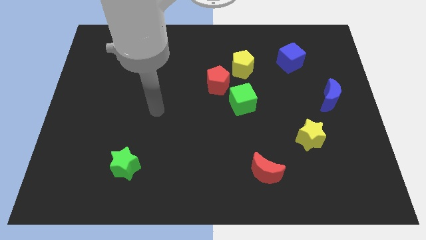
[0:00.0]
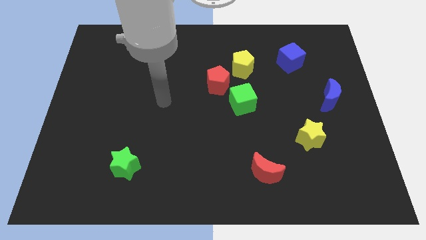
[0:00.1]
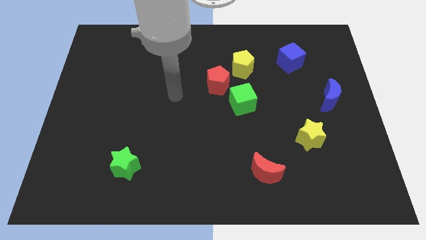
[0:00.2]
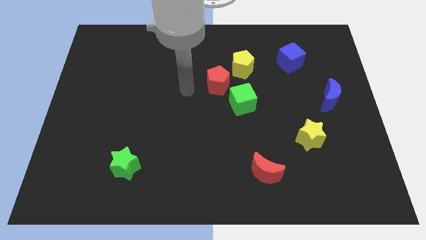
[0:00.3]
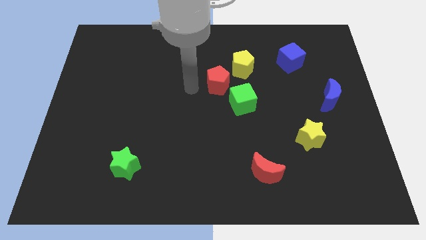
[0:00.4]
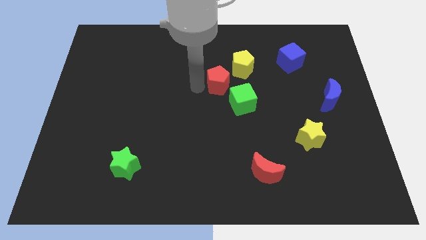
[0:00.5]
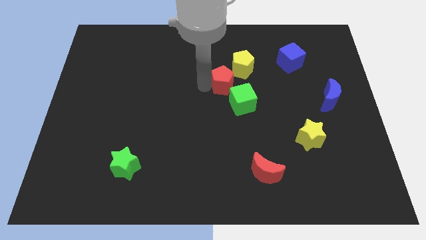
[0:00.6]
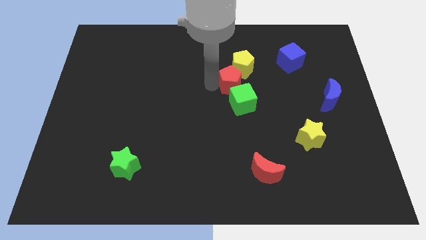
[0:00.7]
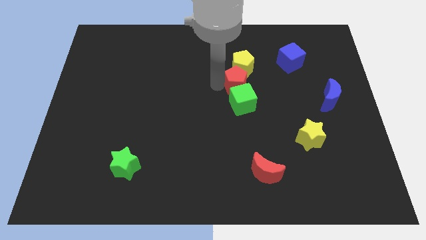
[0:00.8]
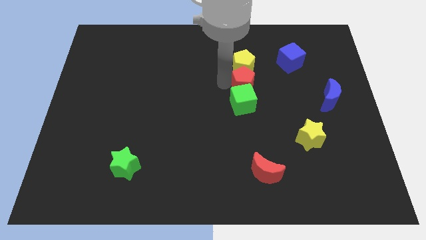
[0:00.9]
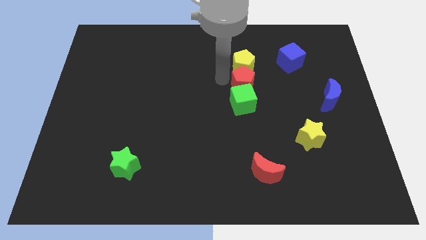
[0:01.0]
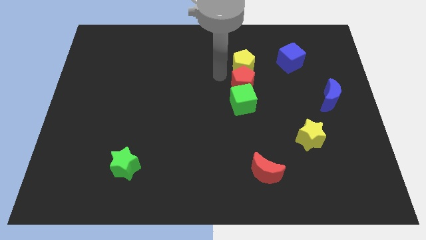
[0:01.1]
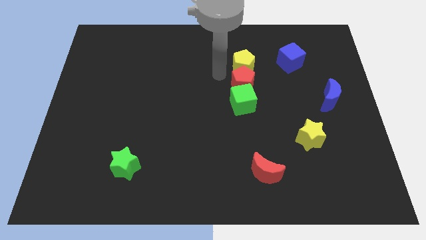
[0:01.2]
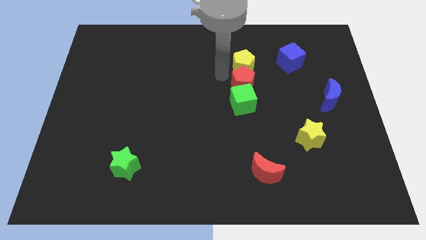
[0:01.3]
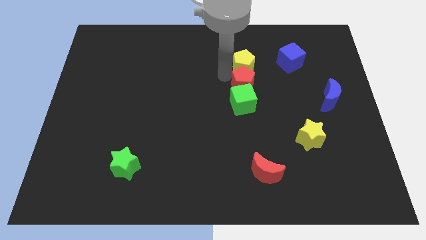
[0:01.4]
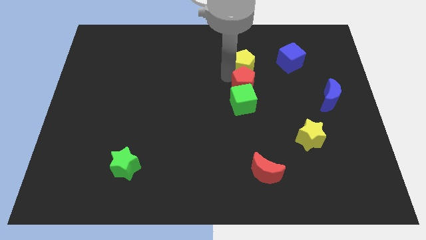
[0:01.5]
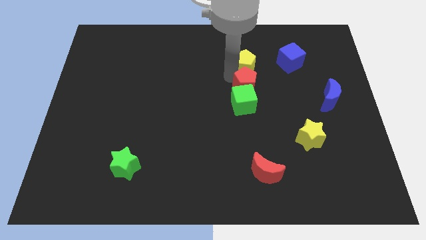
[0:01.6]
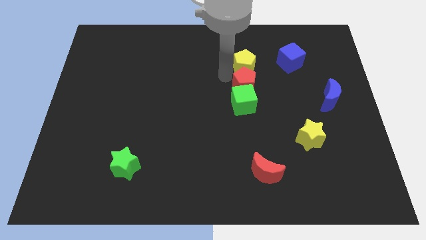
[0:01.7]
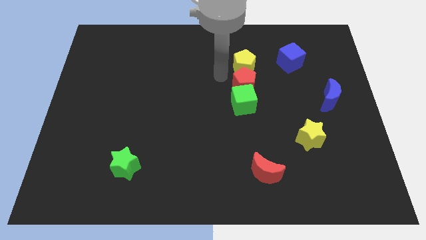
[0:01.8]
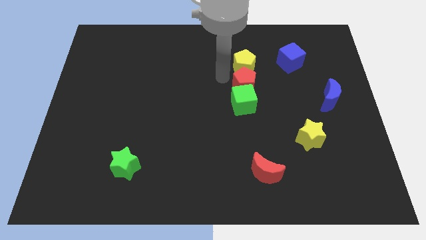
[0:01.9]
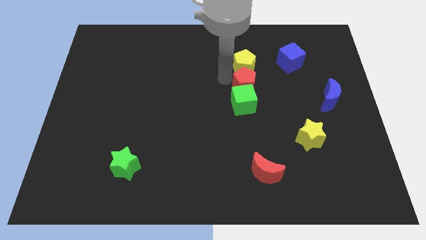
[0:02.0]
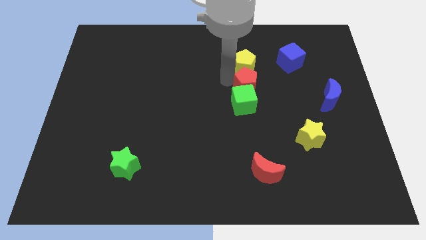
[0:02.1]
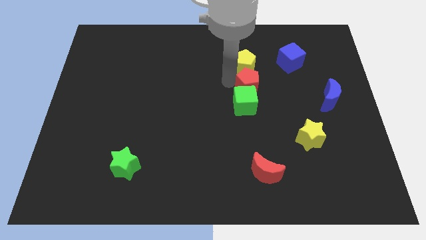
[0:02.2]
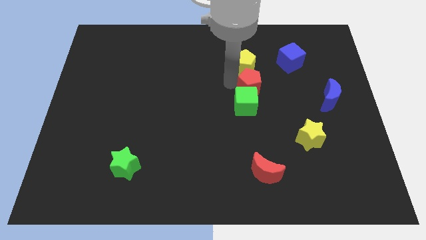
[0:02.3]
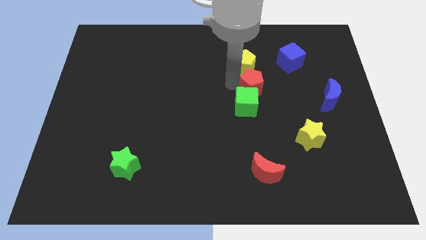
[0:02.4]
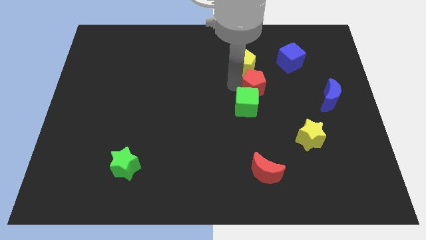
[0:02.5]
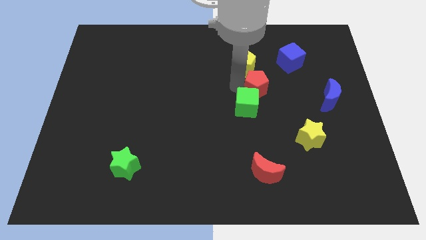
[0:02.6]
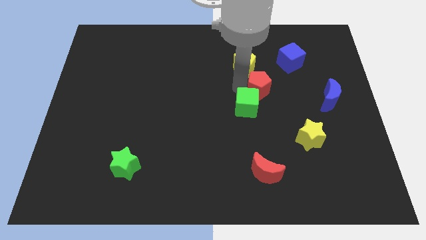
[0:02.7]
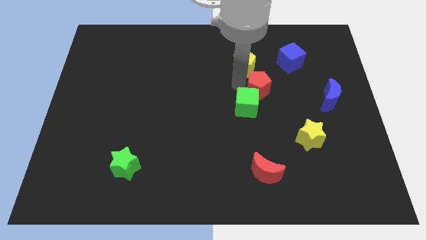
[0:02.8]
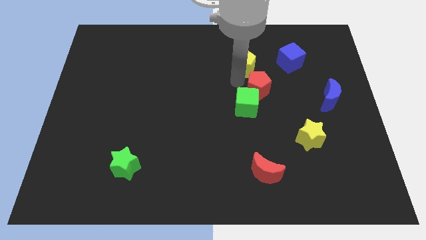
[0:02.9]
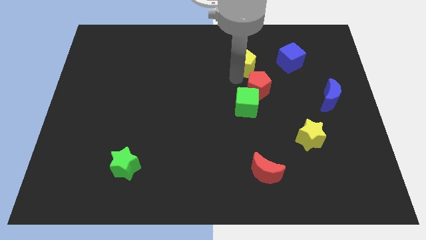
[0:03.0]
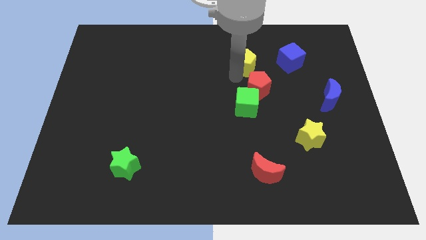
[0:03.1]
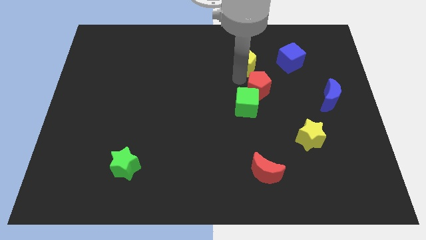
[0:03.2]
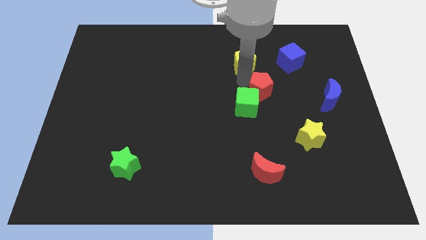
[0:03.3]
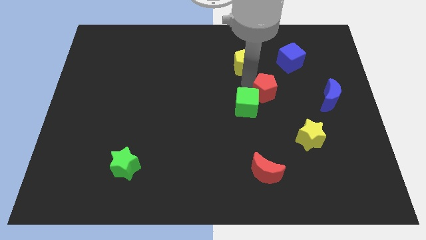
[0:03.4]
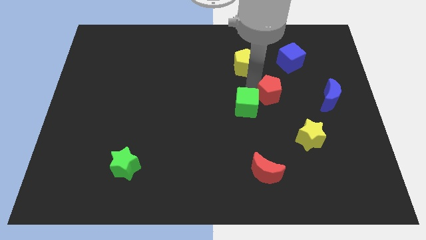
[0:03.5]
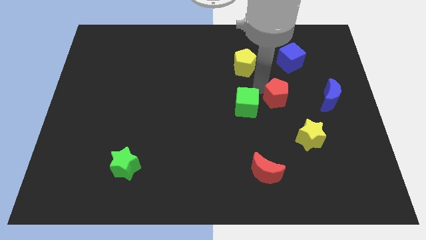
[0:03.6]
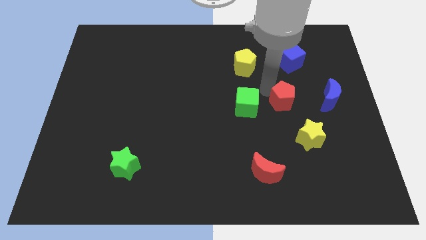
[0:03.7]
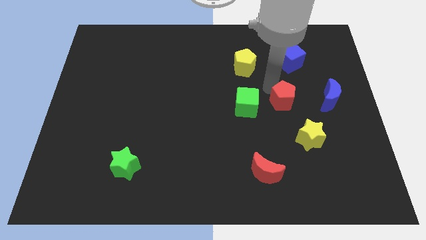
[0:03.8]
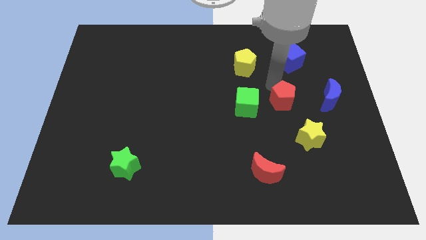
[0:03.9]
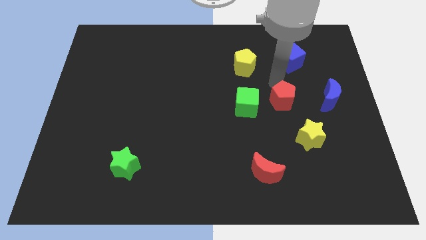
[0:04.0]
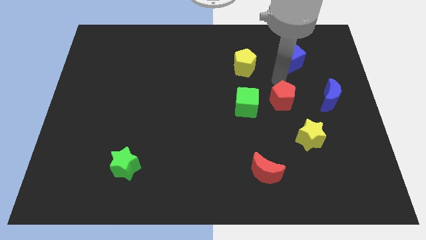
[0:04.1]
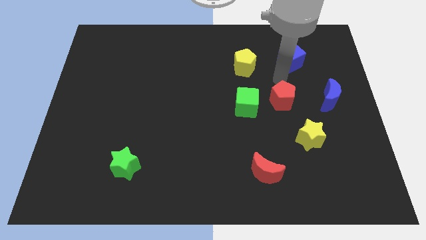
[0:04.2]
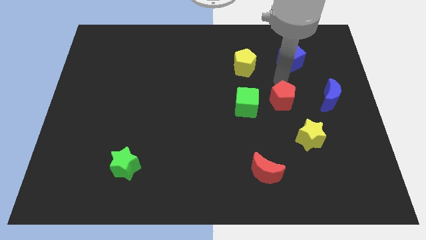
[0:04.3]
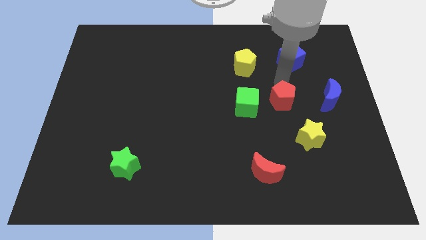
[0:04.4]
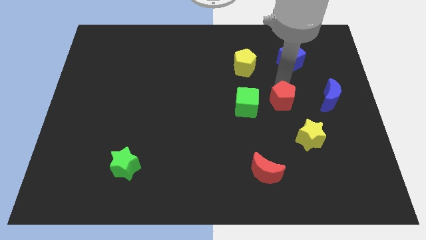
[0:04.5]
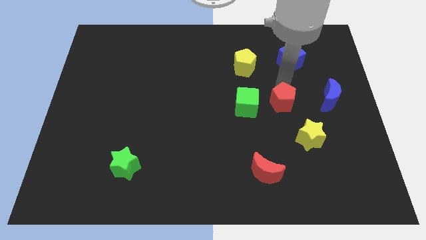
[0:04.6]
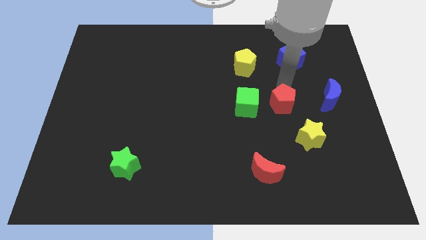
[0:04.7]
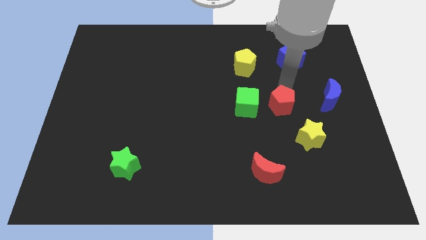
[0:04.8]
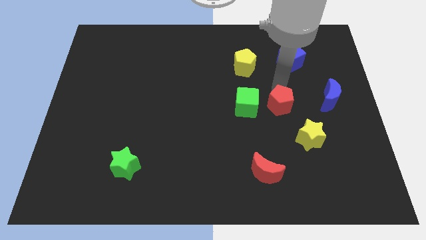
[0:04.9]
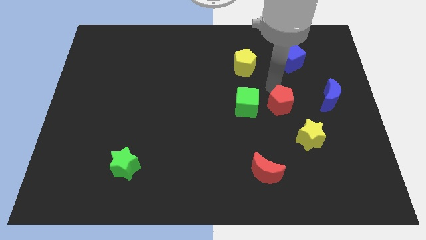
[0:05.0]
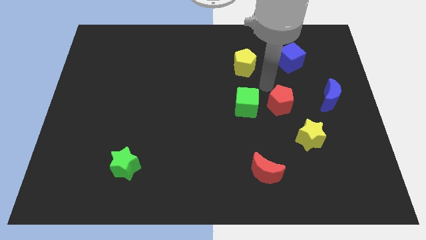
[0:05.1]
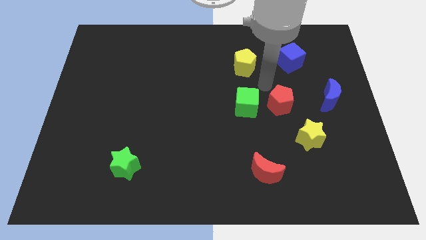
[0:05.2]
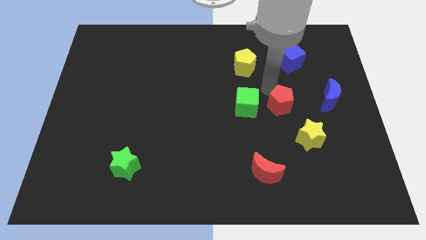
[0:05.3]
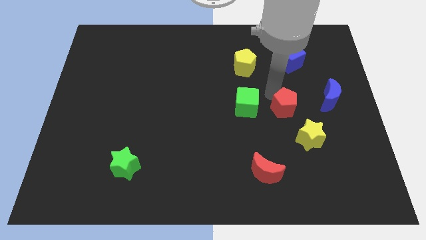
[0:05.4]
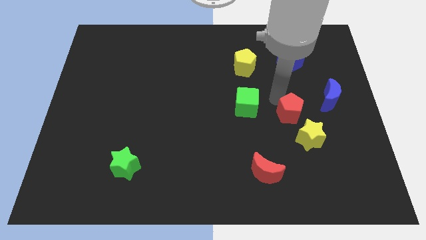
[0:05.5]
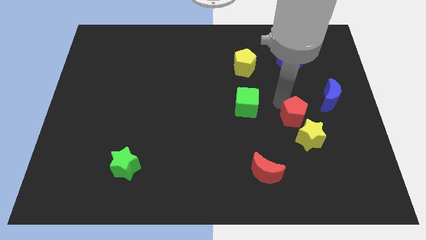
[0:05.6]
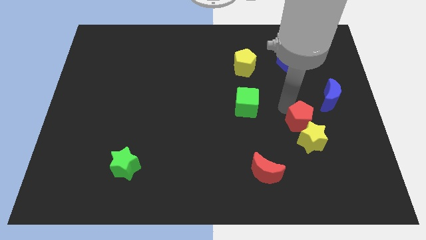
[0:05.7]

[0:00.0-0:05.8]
push the red pentagon next to the yellow star

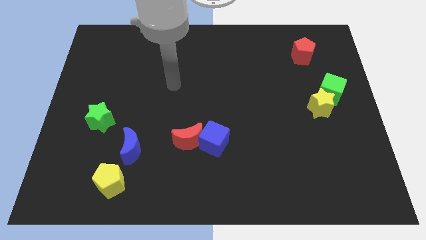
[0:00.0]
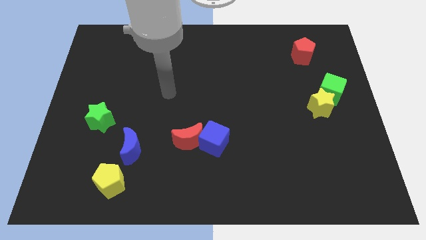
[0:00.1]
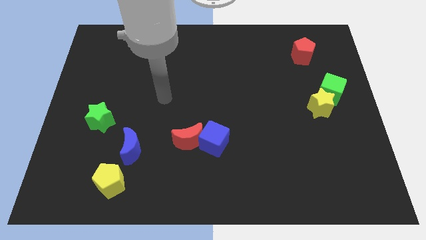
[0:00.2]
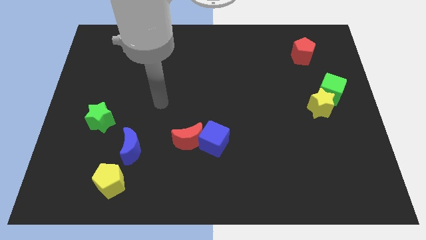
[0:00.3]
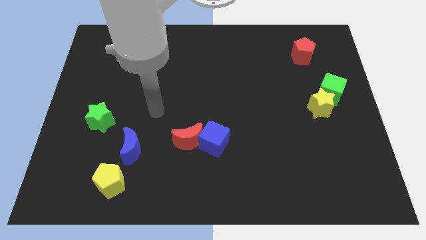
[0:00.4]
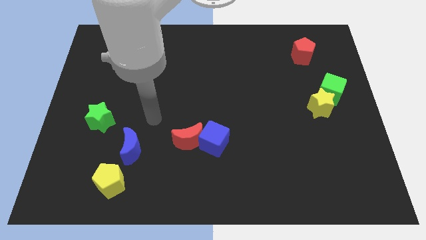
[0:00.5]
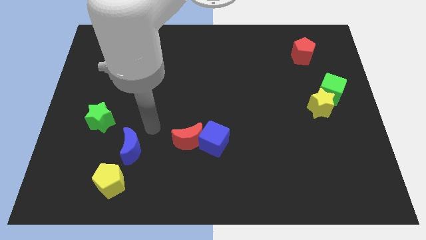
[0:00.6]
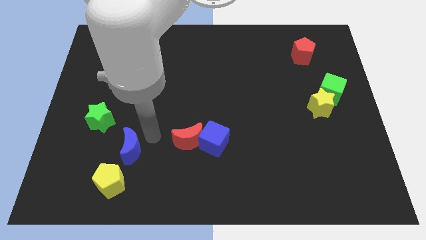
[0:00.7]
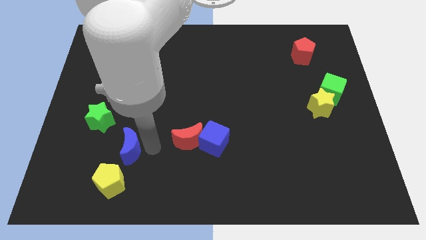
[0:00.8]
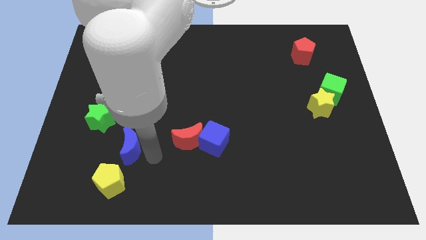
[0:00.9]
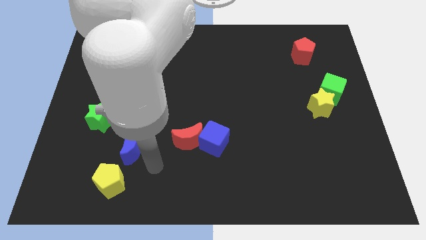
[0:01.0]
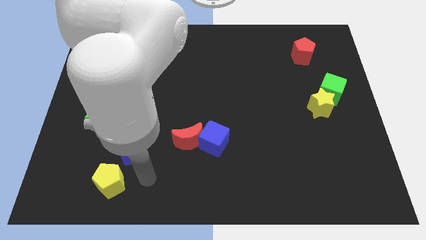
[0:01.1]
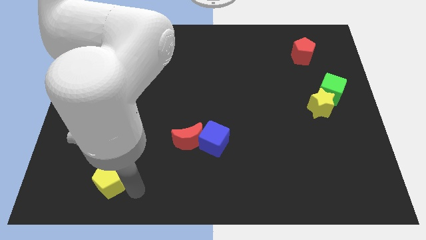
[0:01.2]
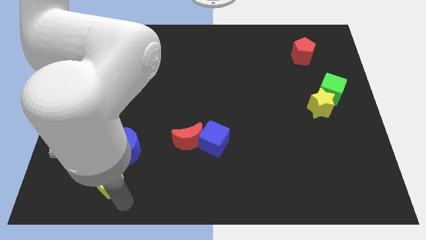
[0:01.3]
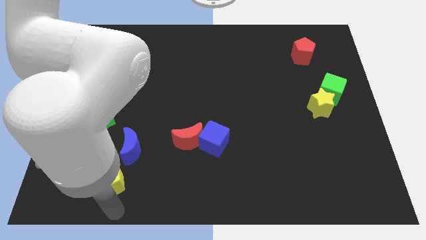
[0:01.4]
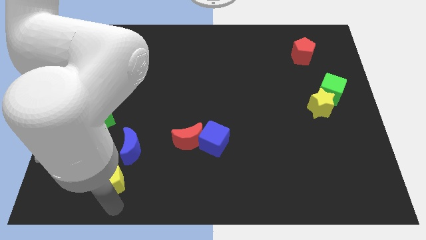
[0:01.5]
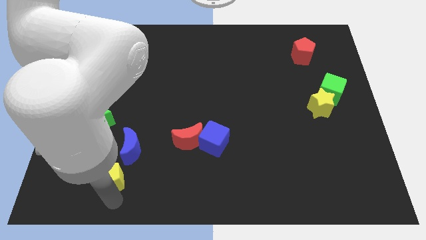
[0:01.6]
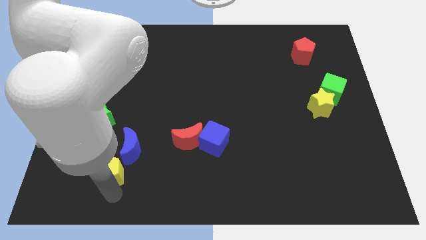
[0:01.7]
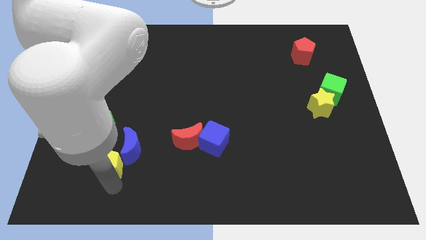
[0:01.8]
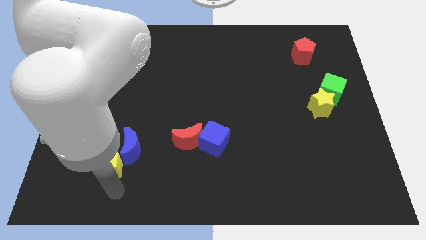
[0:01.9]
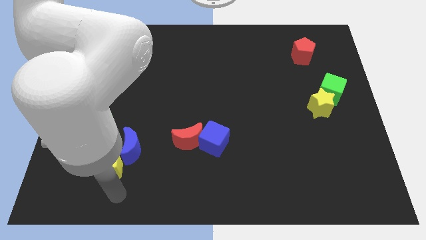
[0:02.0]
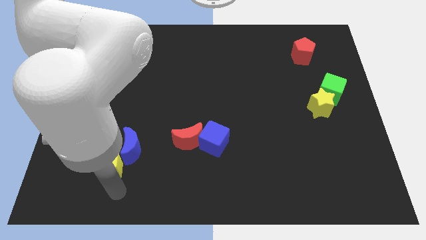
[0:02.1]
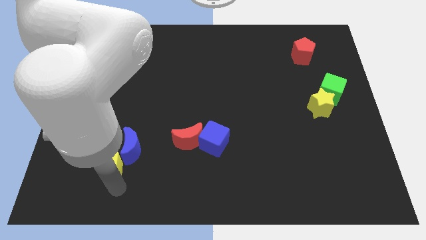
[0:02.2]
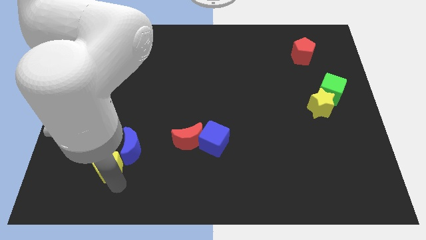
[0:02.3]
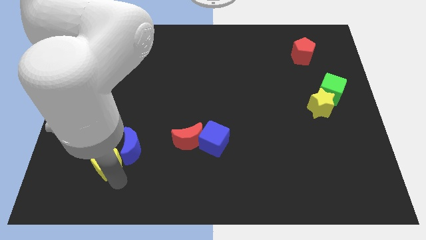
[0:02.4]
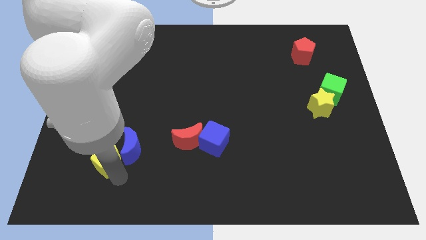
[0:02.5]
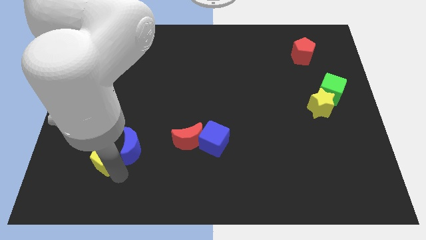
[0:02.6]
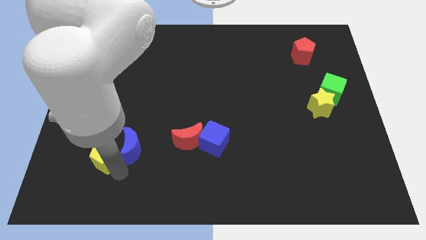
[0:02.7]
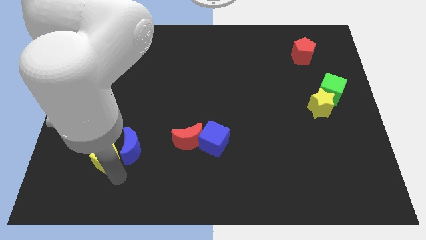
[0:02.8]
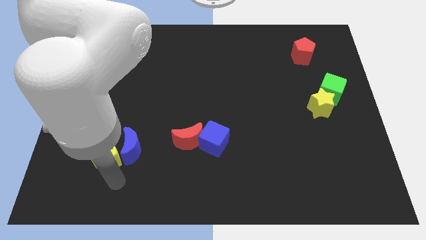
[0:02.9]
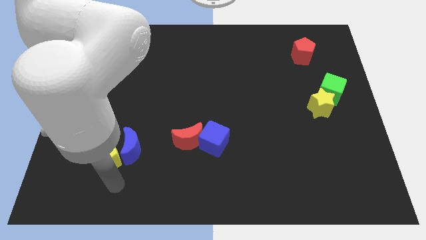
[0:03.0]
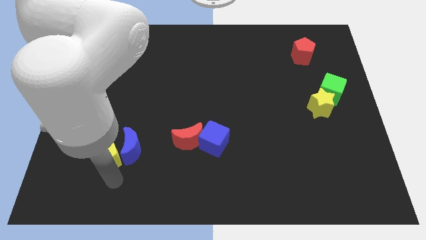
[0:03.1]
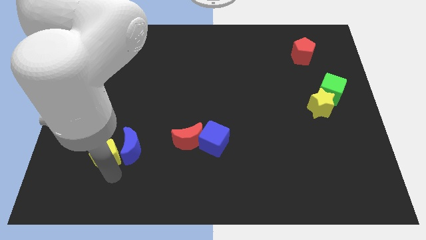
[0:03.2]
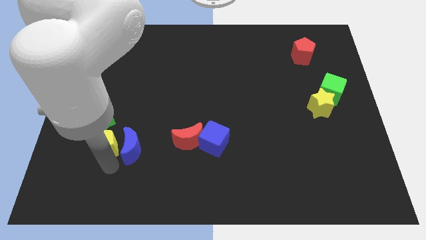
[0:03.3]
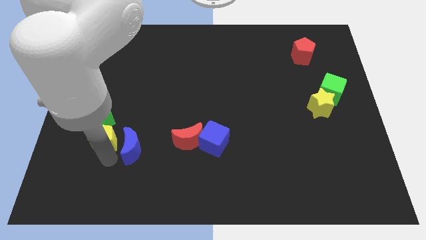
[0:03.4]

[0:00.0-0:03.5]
put the yellow pentagon next to the green star
